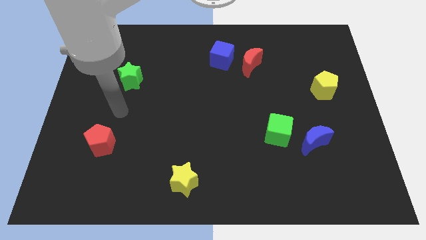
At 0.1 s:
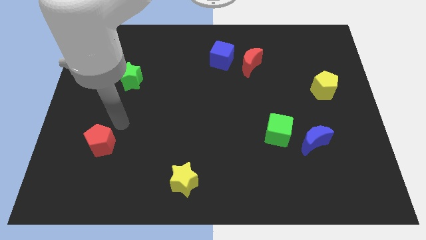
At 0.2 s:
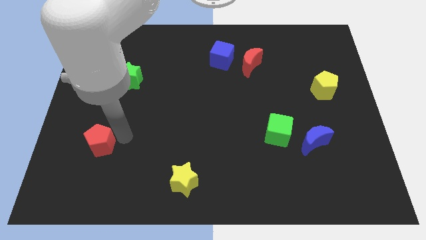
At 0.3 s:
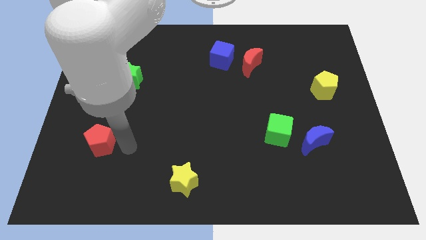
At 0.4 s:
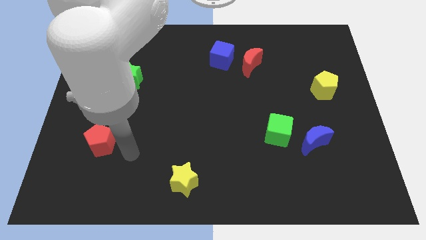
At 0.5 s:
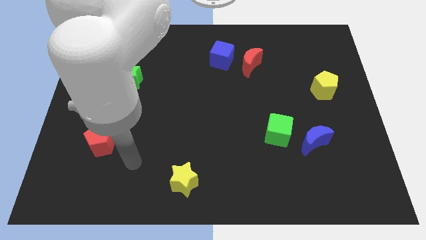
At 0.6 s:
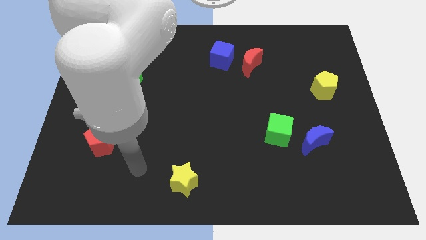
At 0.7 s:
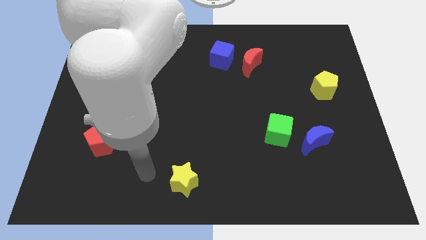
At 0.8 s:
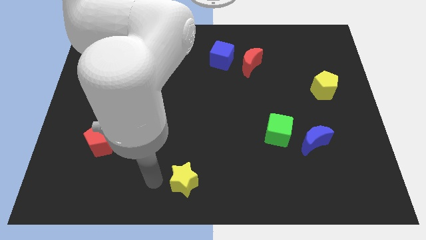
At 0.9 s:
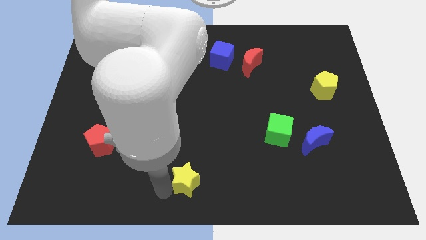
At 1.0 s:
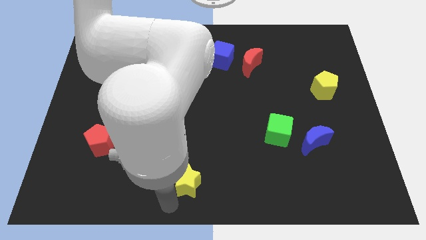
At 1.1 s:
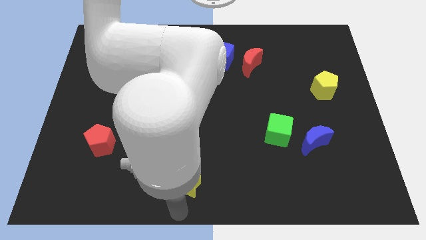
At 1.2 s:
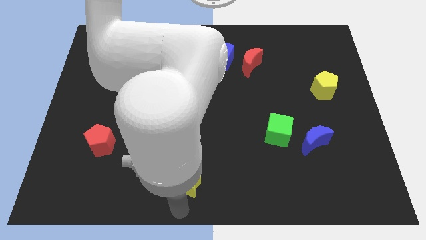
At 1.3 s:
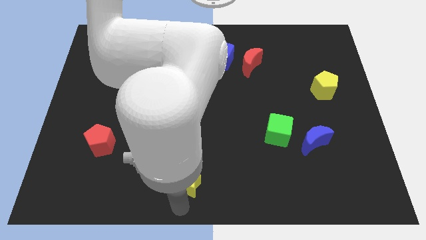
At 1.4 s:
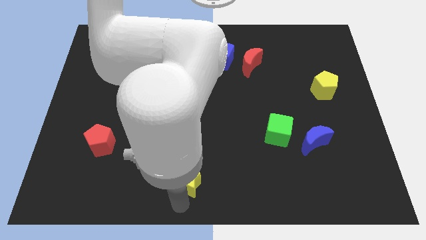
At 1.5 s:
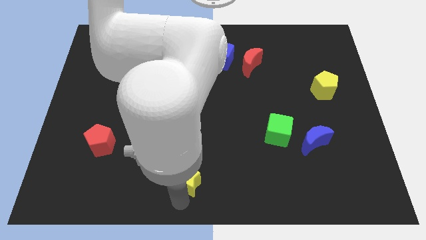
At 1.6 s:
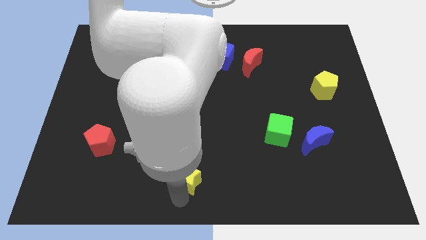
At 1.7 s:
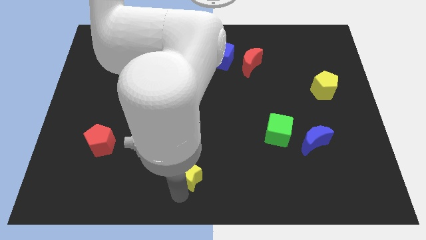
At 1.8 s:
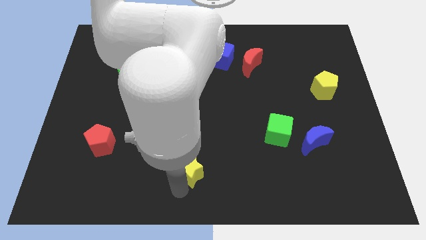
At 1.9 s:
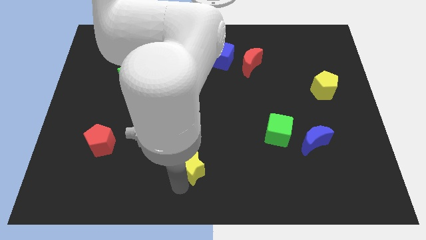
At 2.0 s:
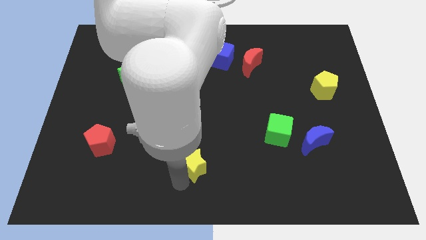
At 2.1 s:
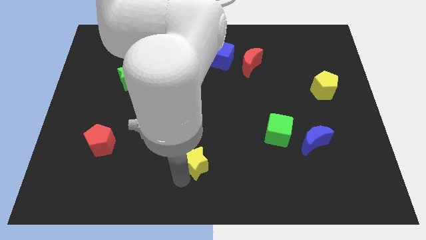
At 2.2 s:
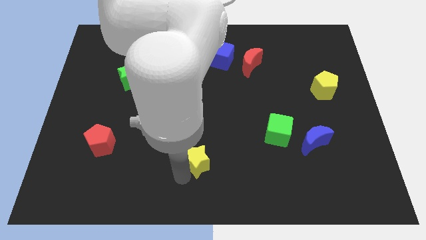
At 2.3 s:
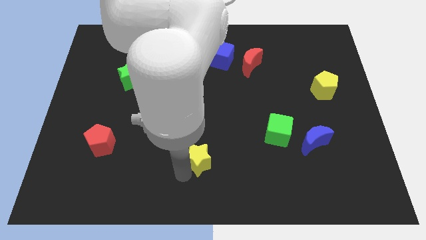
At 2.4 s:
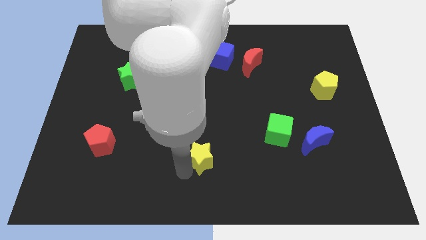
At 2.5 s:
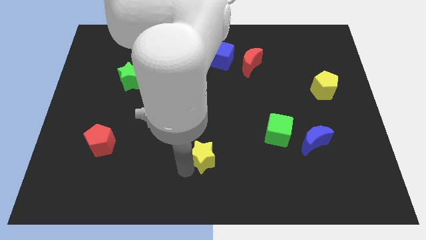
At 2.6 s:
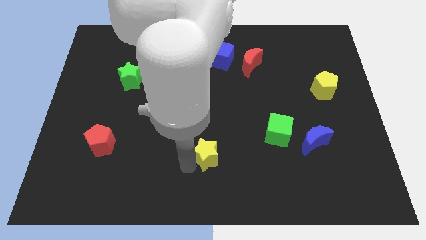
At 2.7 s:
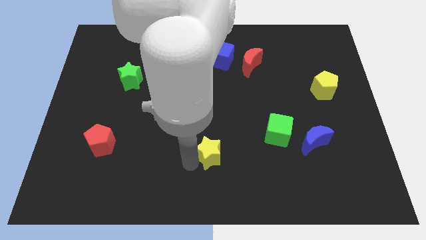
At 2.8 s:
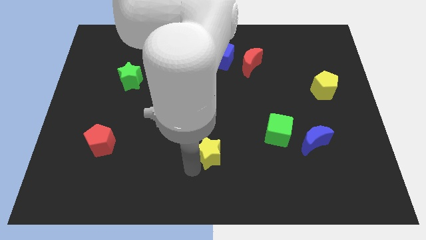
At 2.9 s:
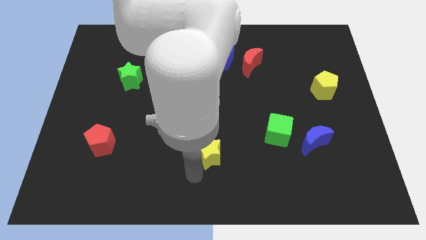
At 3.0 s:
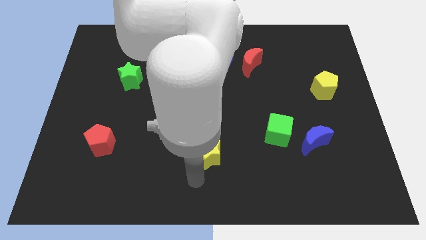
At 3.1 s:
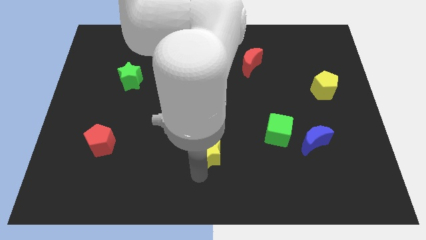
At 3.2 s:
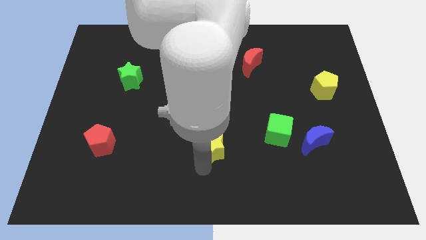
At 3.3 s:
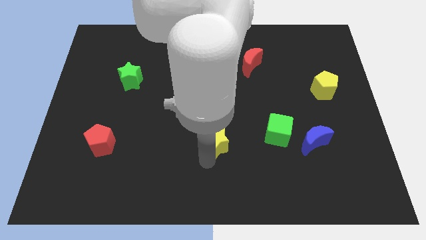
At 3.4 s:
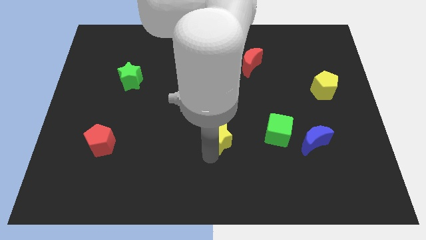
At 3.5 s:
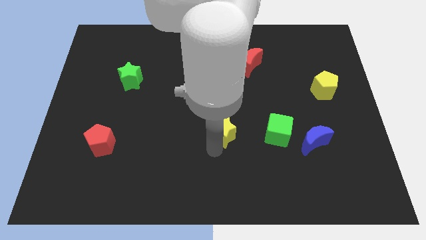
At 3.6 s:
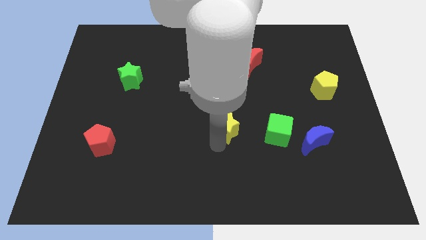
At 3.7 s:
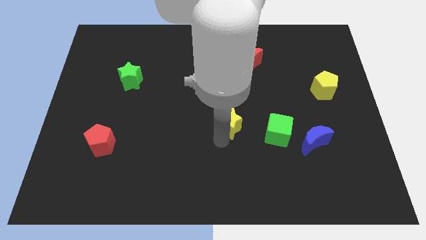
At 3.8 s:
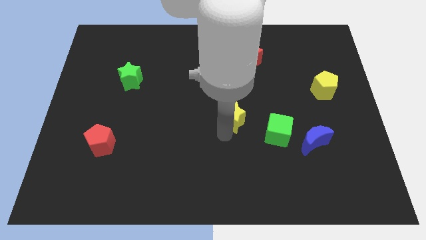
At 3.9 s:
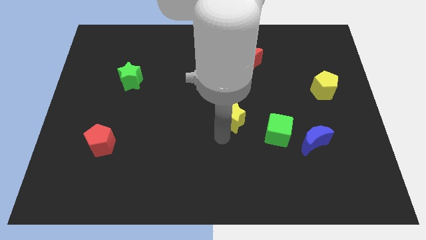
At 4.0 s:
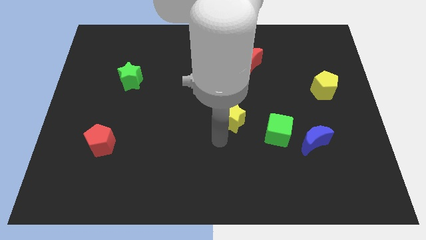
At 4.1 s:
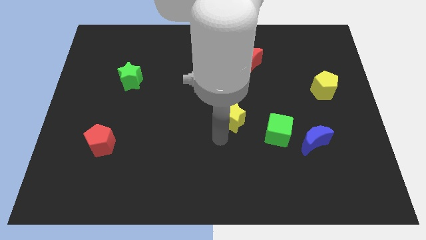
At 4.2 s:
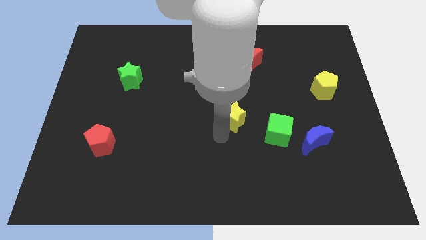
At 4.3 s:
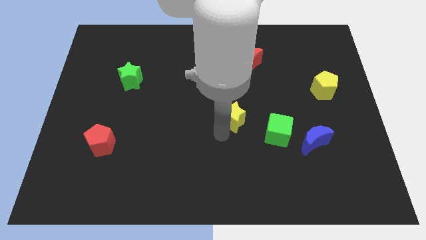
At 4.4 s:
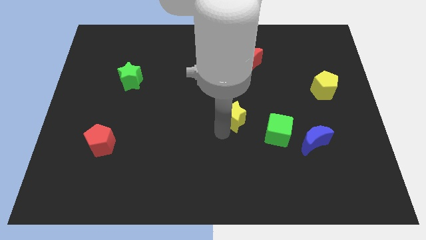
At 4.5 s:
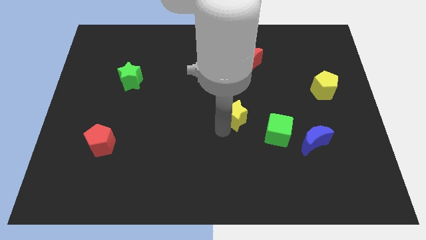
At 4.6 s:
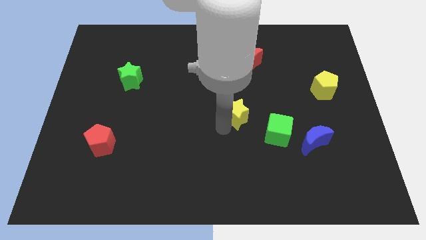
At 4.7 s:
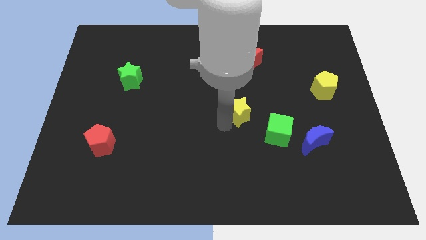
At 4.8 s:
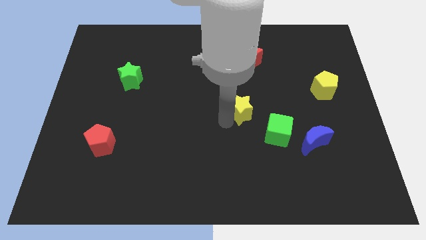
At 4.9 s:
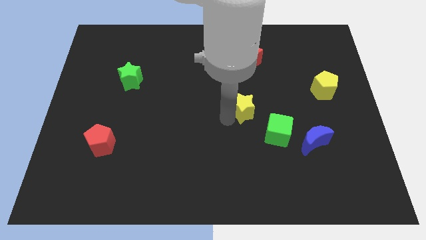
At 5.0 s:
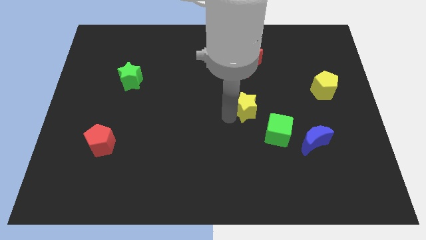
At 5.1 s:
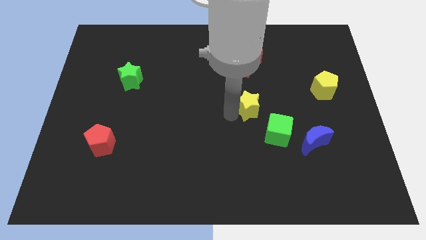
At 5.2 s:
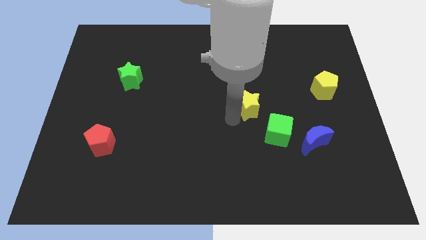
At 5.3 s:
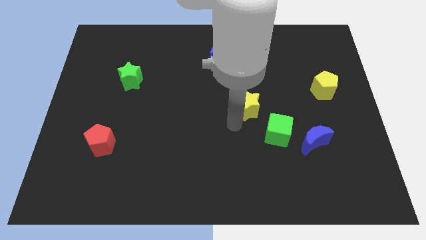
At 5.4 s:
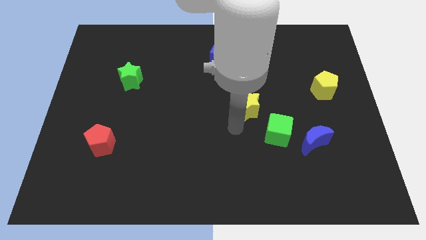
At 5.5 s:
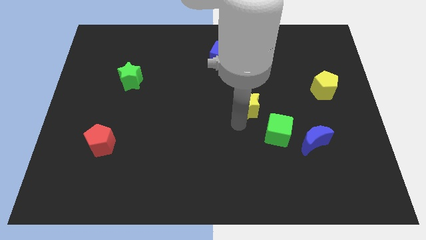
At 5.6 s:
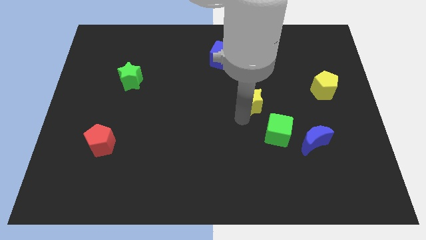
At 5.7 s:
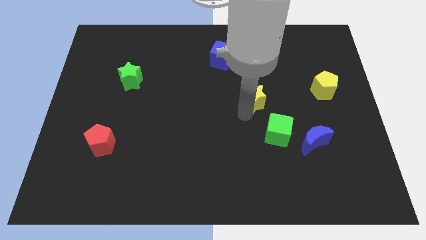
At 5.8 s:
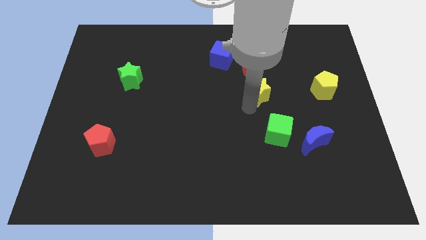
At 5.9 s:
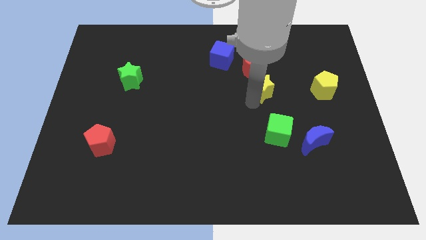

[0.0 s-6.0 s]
move the yellow star to the bottom right side of the red moon

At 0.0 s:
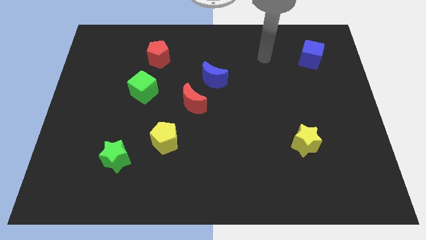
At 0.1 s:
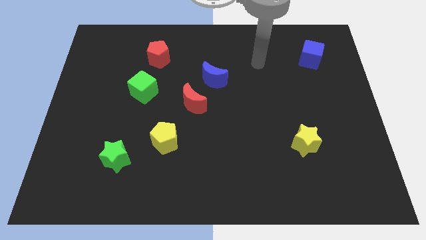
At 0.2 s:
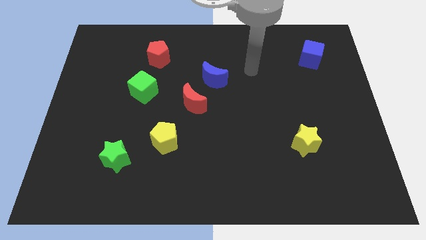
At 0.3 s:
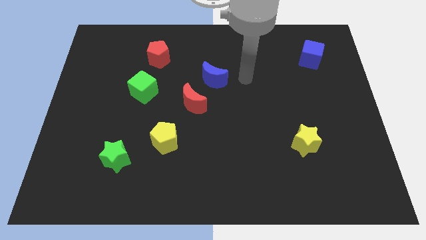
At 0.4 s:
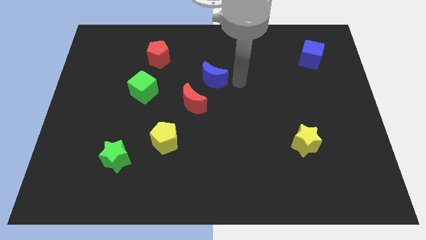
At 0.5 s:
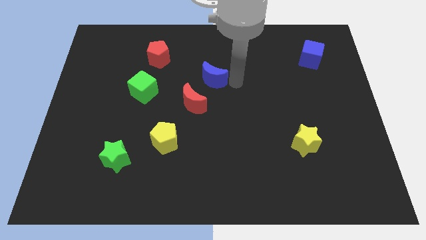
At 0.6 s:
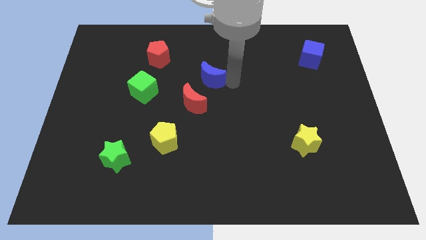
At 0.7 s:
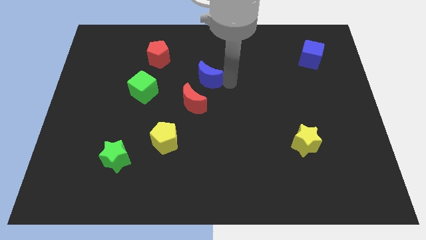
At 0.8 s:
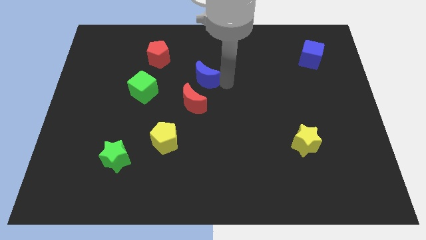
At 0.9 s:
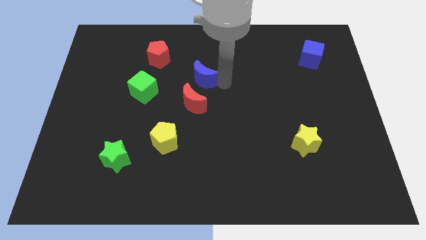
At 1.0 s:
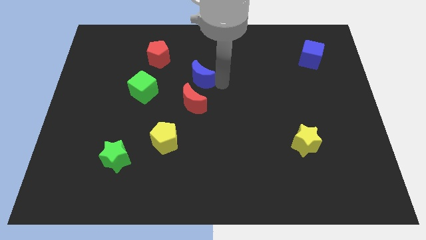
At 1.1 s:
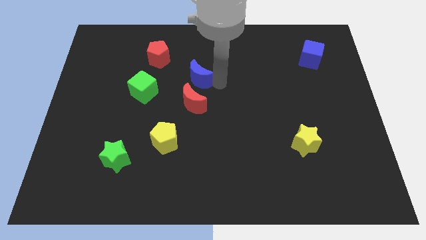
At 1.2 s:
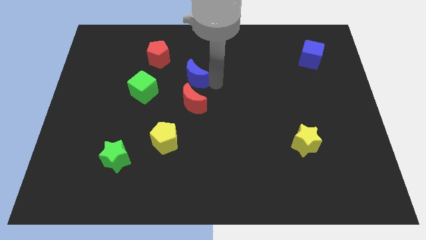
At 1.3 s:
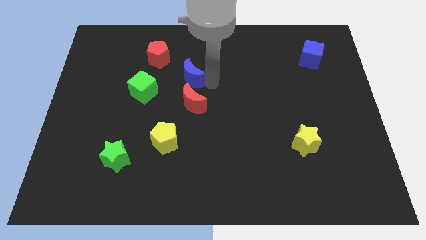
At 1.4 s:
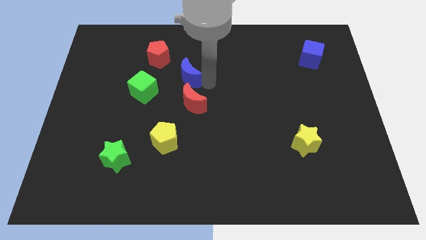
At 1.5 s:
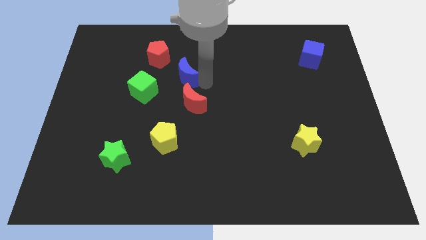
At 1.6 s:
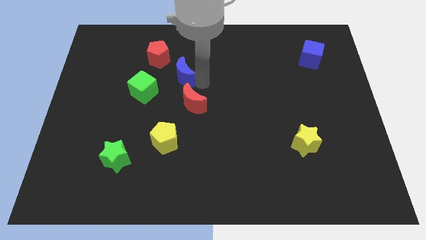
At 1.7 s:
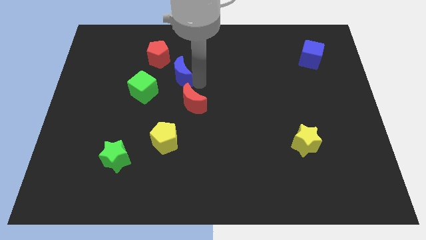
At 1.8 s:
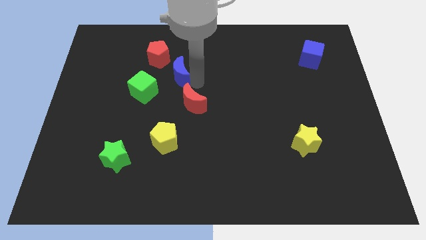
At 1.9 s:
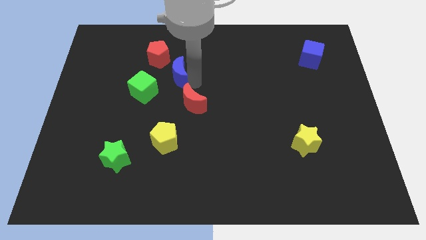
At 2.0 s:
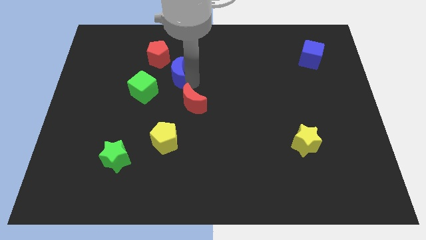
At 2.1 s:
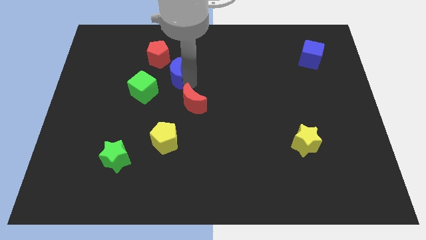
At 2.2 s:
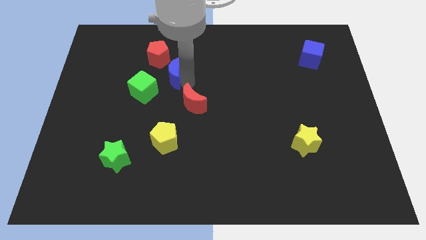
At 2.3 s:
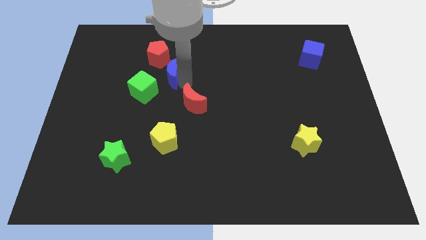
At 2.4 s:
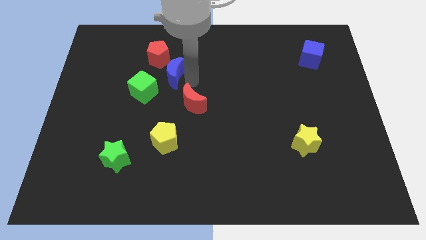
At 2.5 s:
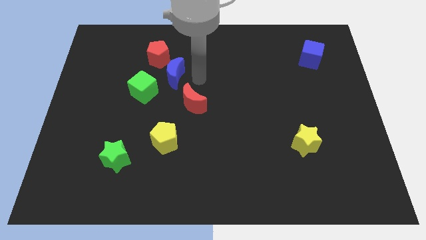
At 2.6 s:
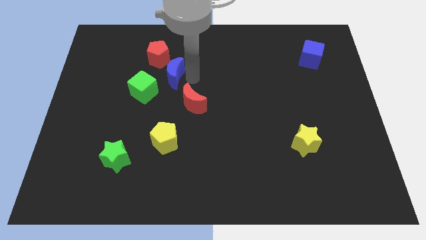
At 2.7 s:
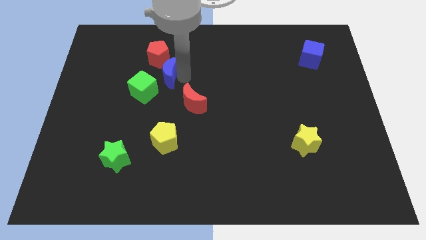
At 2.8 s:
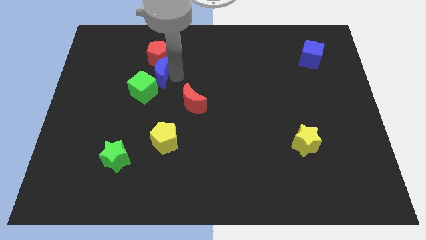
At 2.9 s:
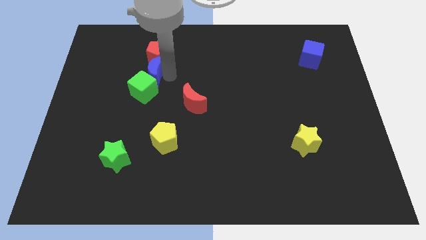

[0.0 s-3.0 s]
slide the blue moon to the bottom left of the red pentagon
